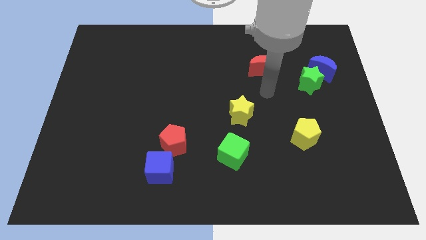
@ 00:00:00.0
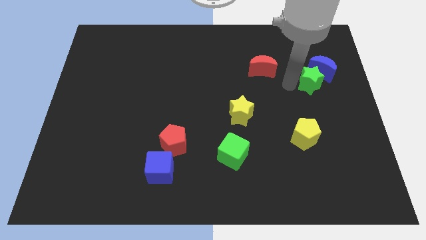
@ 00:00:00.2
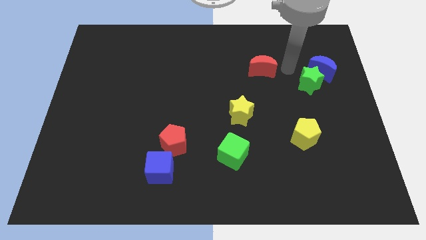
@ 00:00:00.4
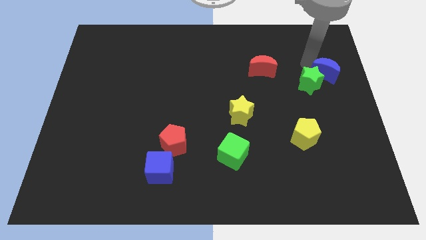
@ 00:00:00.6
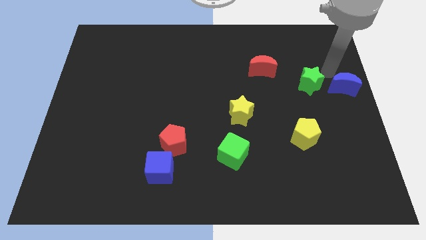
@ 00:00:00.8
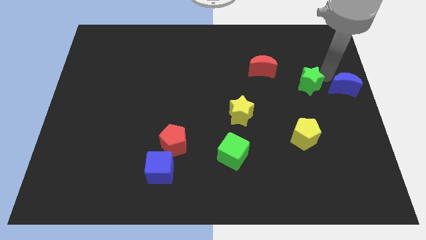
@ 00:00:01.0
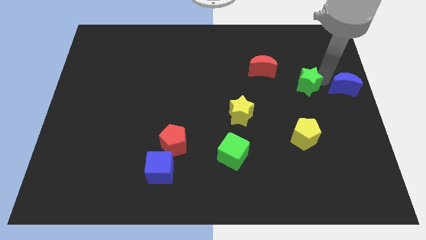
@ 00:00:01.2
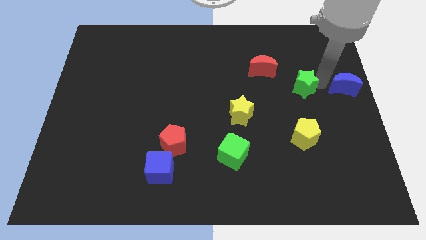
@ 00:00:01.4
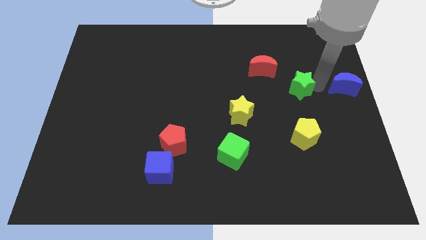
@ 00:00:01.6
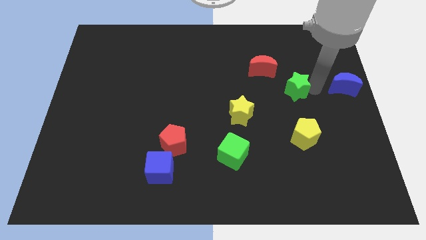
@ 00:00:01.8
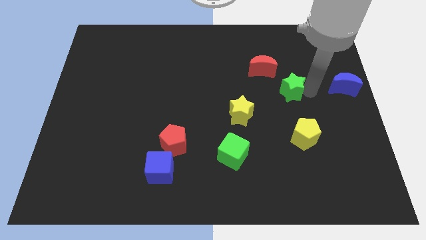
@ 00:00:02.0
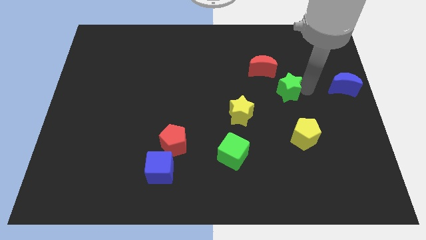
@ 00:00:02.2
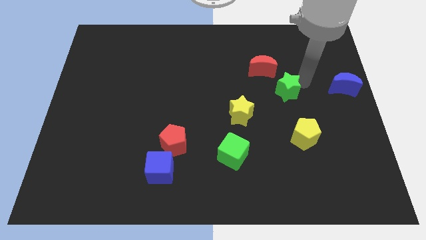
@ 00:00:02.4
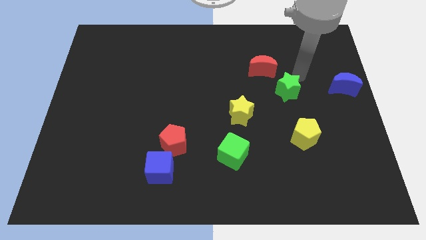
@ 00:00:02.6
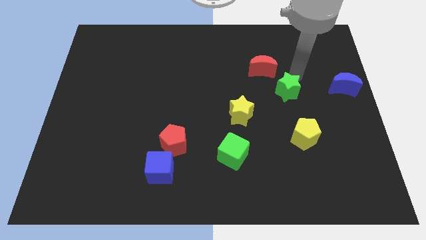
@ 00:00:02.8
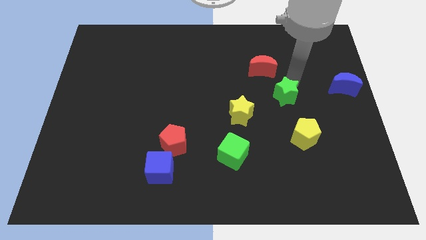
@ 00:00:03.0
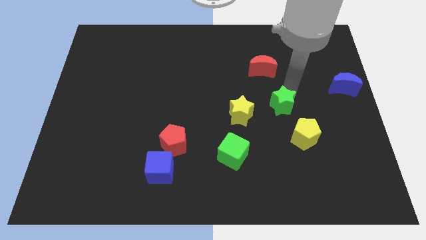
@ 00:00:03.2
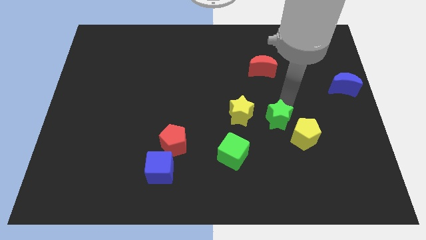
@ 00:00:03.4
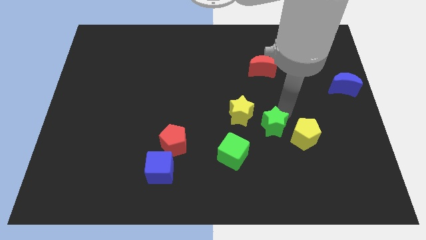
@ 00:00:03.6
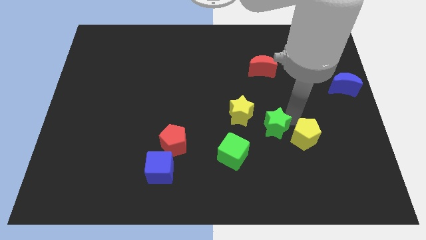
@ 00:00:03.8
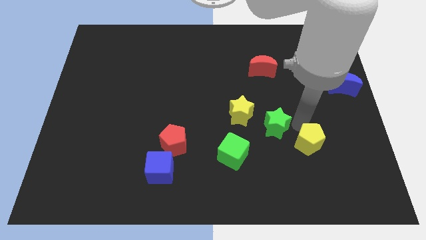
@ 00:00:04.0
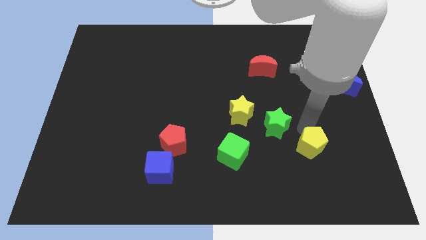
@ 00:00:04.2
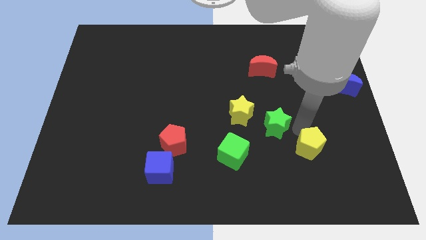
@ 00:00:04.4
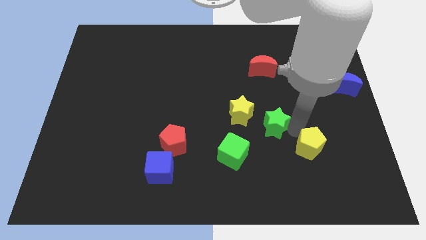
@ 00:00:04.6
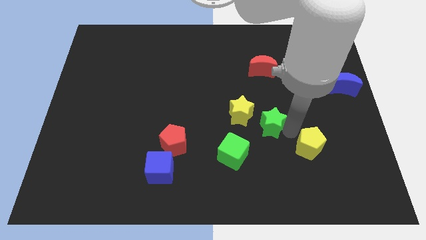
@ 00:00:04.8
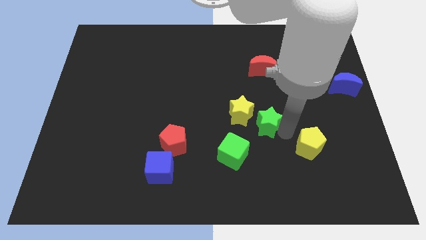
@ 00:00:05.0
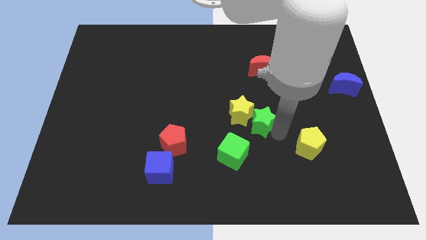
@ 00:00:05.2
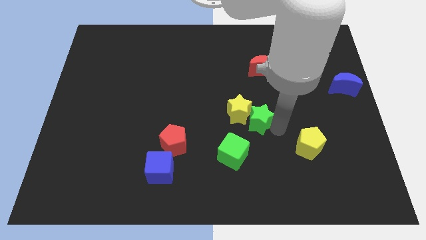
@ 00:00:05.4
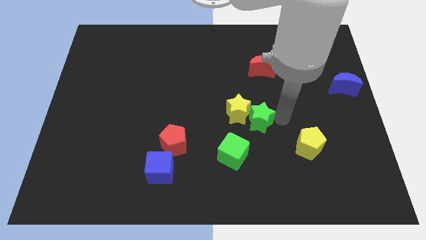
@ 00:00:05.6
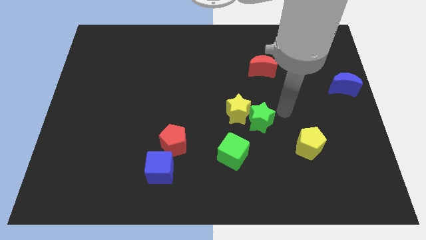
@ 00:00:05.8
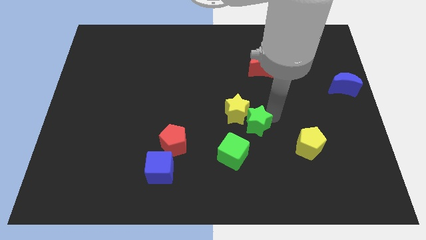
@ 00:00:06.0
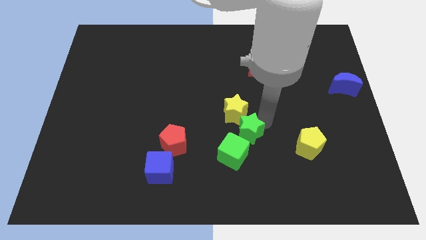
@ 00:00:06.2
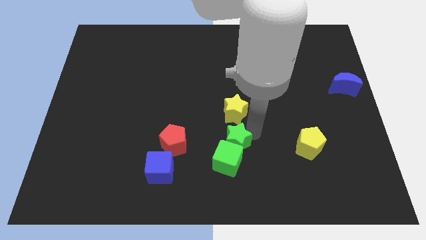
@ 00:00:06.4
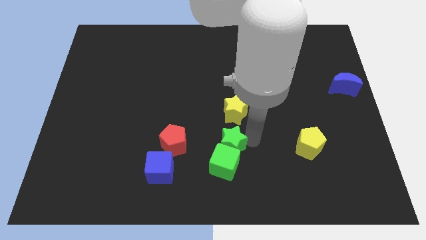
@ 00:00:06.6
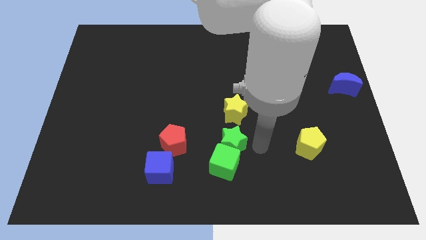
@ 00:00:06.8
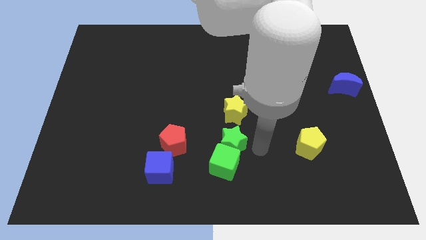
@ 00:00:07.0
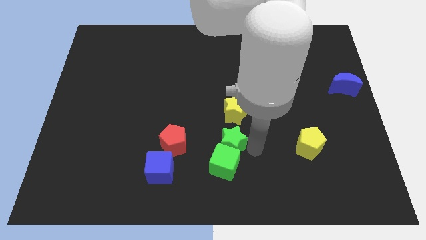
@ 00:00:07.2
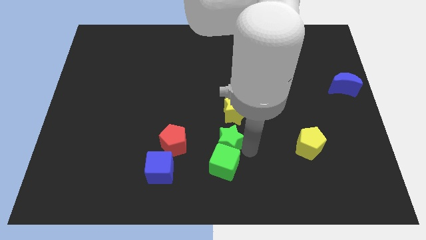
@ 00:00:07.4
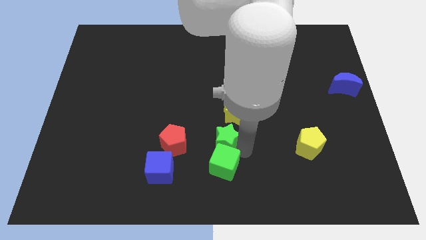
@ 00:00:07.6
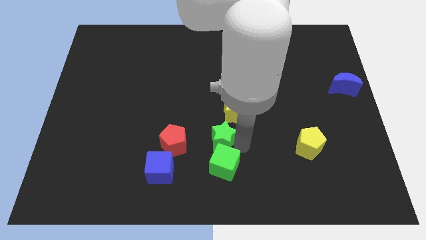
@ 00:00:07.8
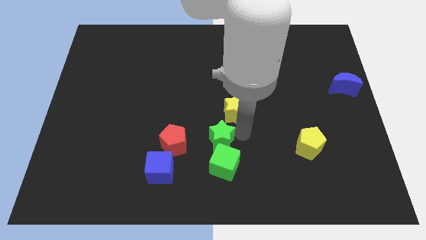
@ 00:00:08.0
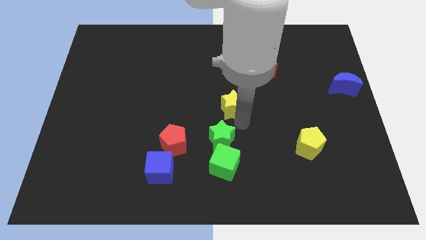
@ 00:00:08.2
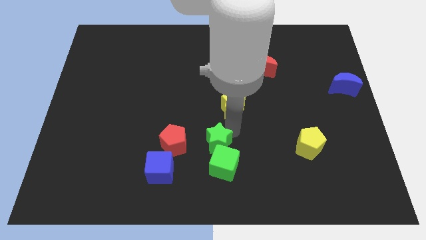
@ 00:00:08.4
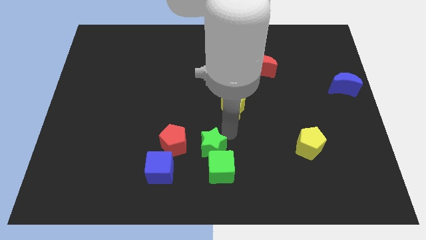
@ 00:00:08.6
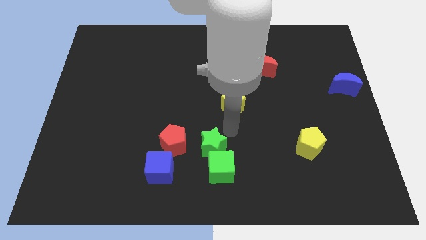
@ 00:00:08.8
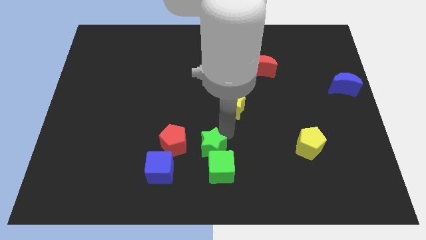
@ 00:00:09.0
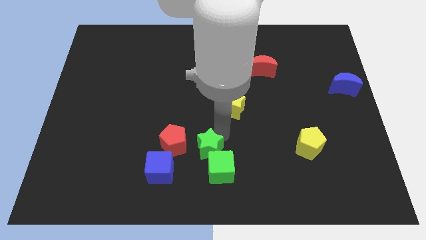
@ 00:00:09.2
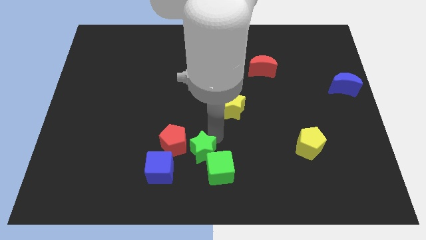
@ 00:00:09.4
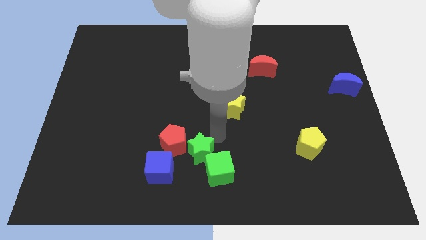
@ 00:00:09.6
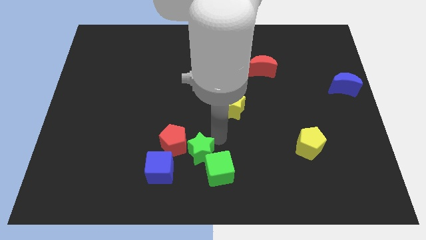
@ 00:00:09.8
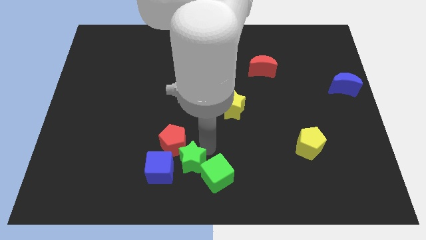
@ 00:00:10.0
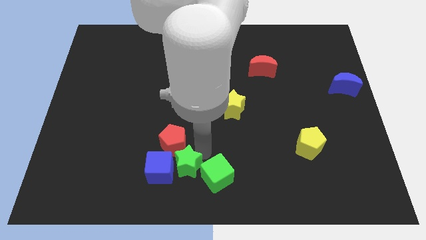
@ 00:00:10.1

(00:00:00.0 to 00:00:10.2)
slide the green star close to the blue cube

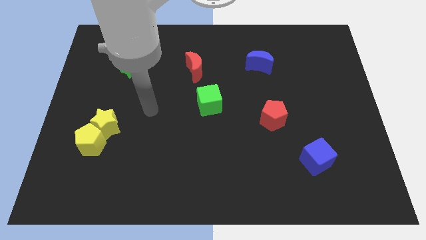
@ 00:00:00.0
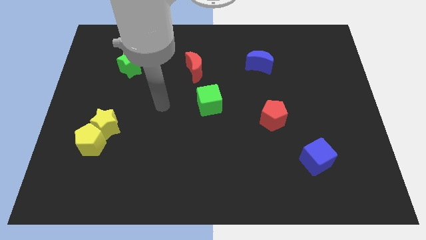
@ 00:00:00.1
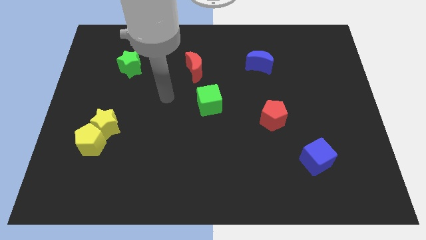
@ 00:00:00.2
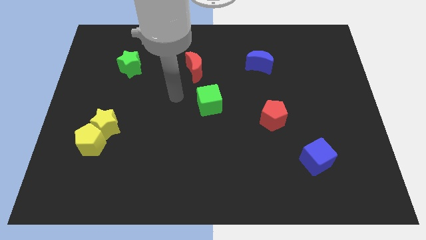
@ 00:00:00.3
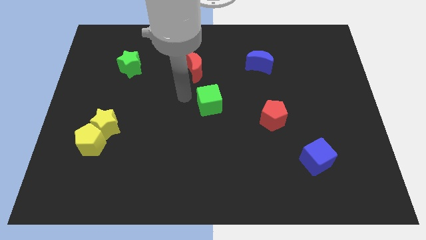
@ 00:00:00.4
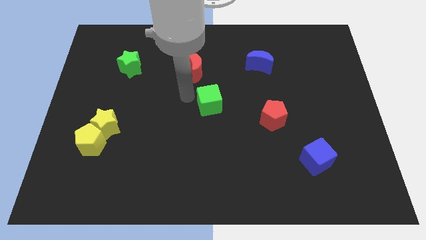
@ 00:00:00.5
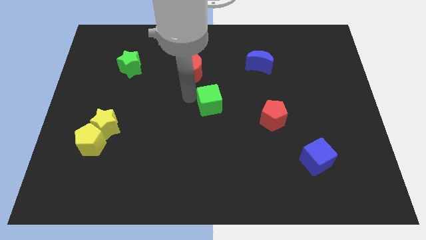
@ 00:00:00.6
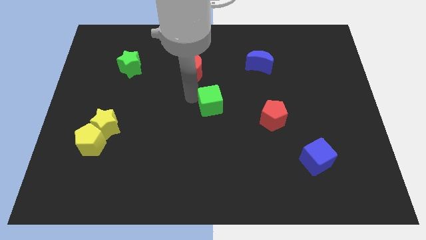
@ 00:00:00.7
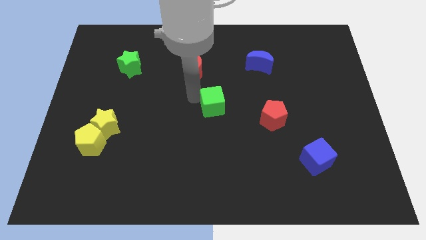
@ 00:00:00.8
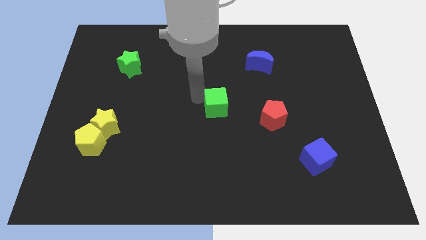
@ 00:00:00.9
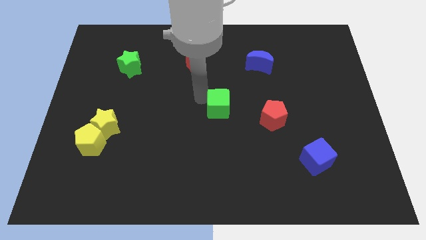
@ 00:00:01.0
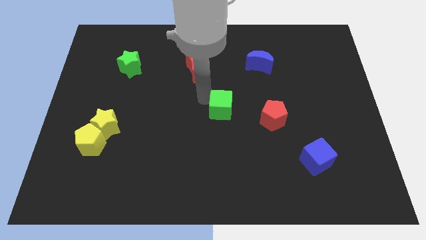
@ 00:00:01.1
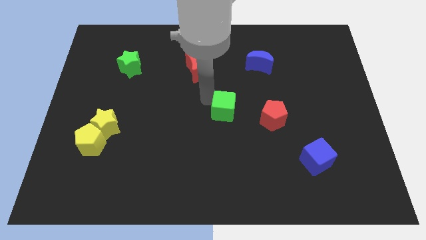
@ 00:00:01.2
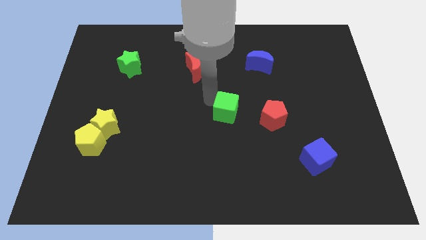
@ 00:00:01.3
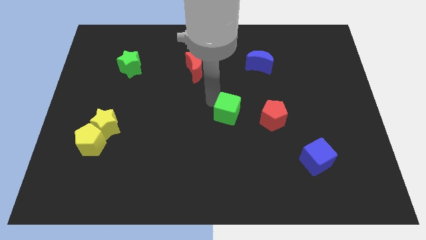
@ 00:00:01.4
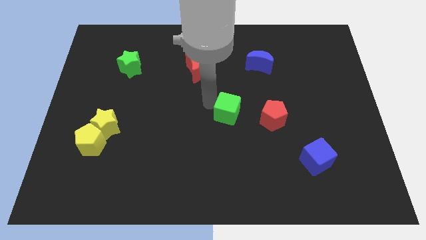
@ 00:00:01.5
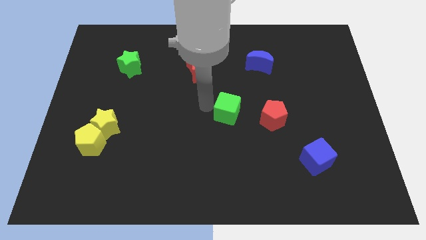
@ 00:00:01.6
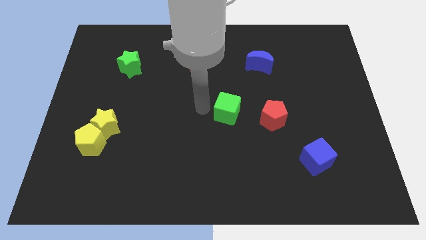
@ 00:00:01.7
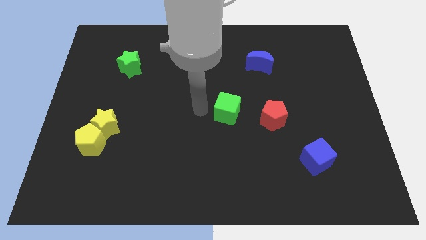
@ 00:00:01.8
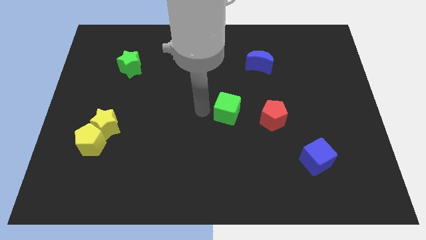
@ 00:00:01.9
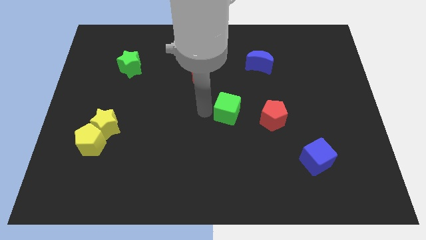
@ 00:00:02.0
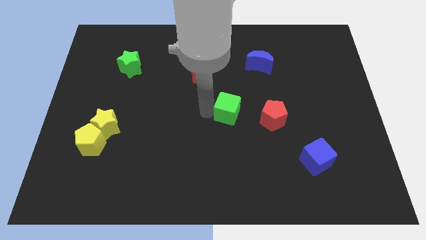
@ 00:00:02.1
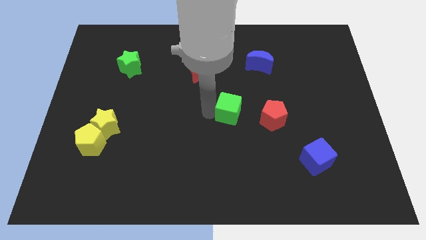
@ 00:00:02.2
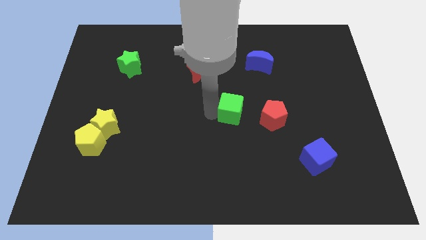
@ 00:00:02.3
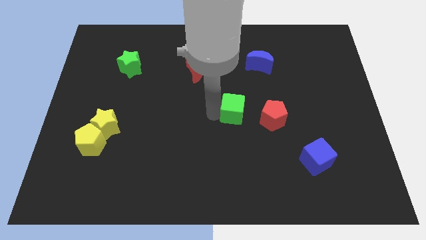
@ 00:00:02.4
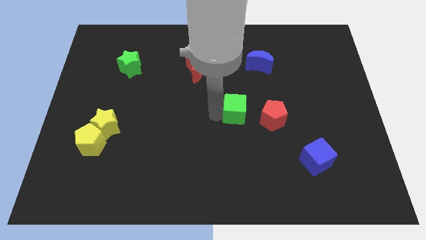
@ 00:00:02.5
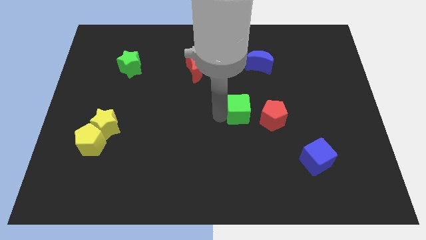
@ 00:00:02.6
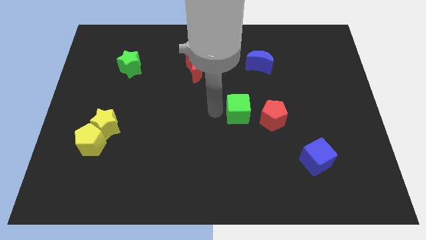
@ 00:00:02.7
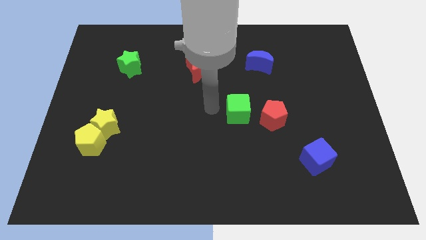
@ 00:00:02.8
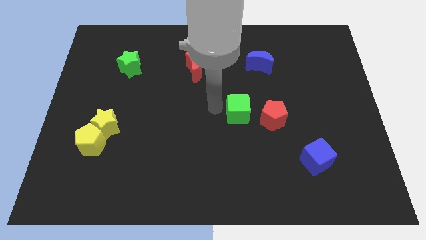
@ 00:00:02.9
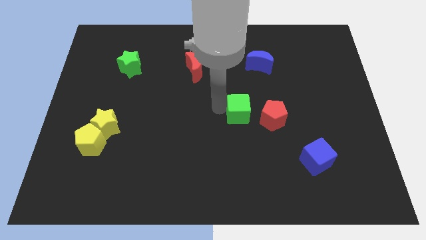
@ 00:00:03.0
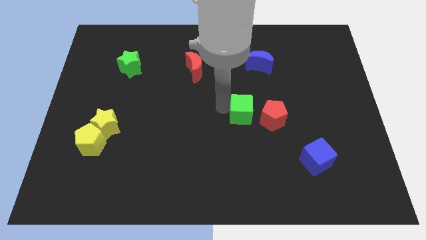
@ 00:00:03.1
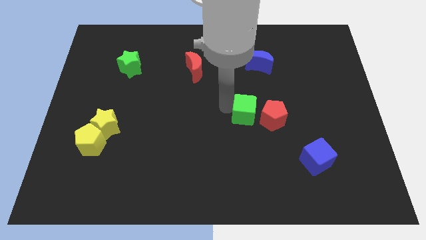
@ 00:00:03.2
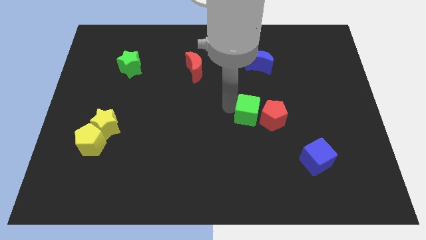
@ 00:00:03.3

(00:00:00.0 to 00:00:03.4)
slide the green cube next to the red pentagon
